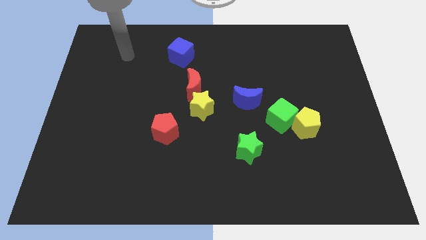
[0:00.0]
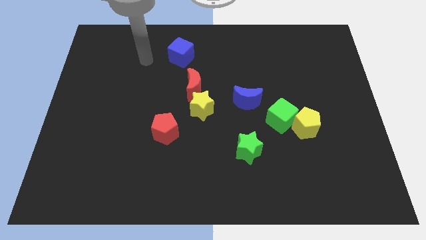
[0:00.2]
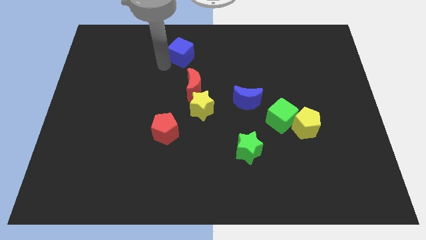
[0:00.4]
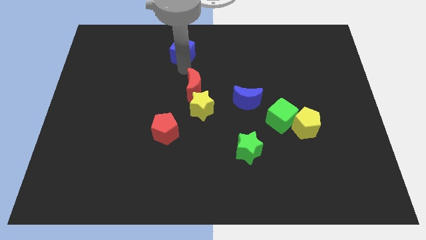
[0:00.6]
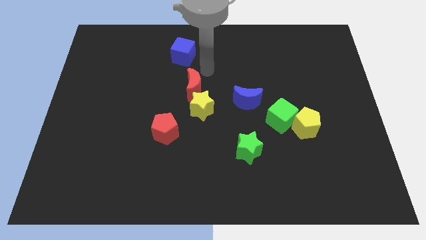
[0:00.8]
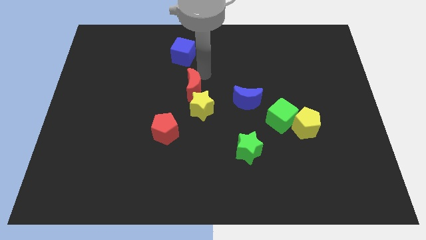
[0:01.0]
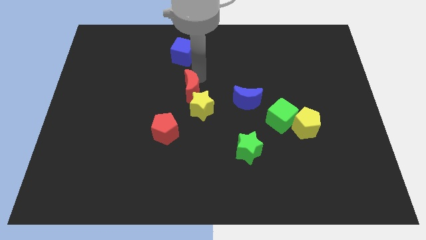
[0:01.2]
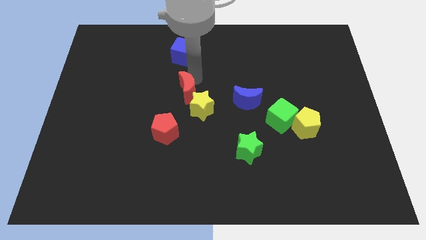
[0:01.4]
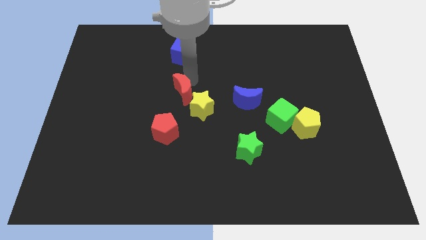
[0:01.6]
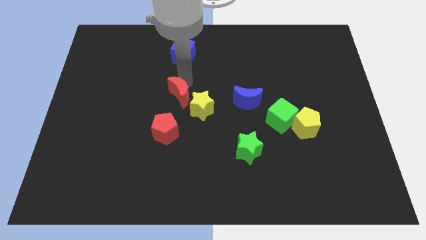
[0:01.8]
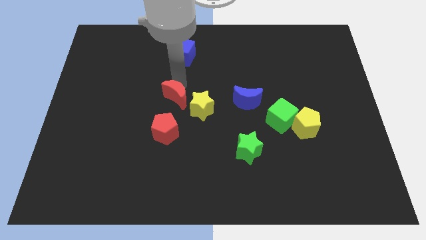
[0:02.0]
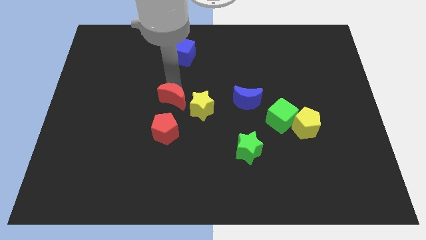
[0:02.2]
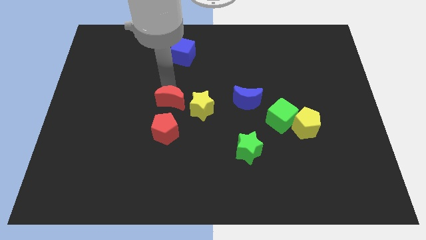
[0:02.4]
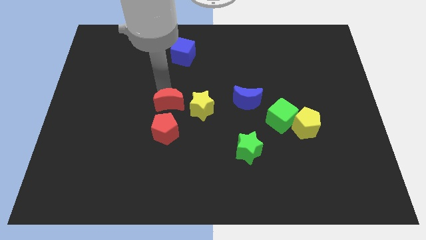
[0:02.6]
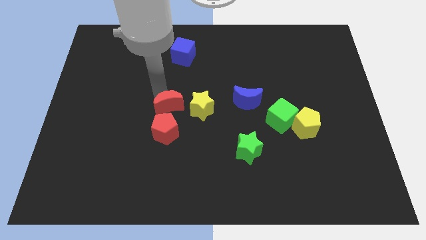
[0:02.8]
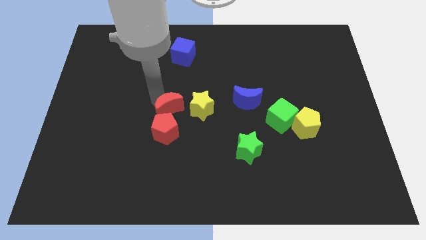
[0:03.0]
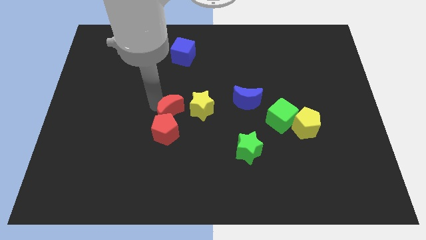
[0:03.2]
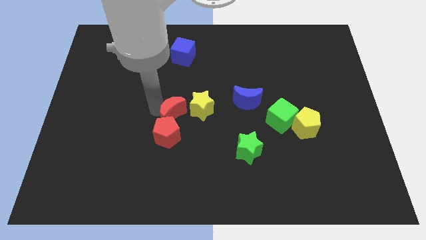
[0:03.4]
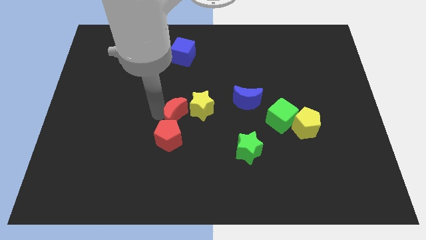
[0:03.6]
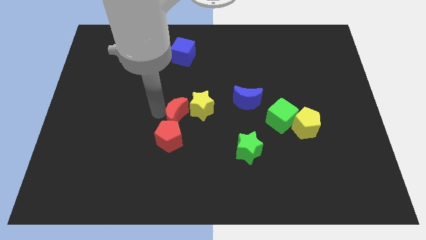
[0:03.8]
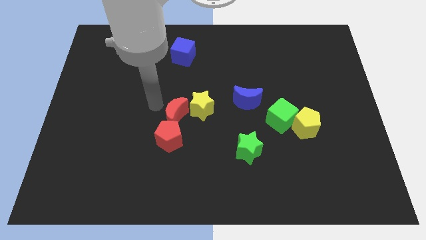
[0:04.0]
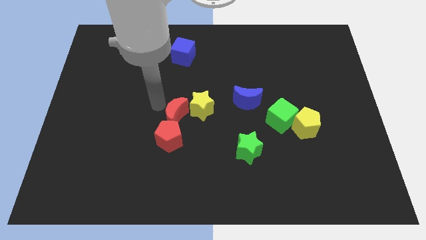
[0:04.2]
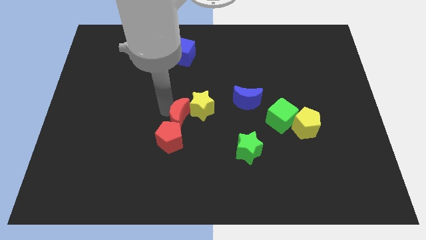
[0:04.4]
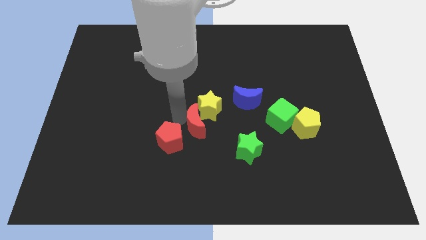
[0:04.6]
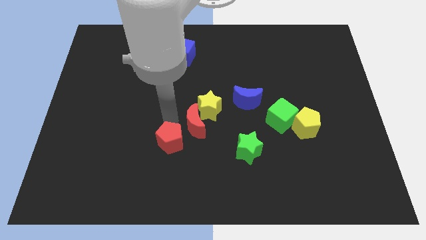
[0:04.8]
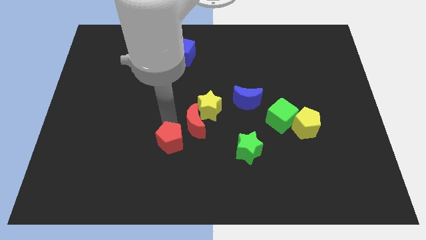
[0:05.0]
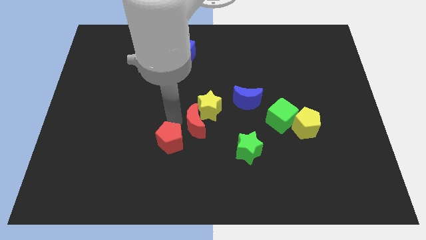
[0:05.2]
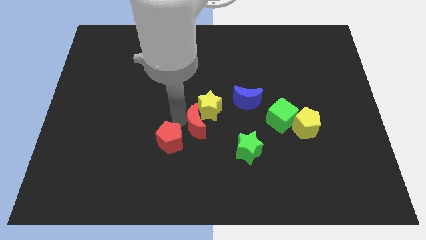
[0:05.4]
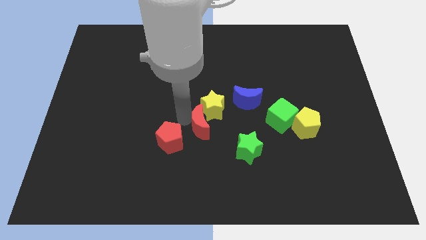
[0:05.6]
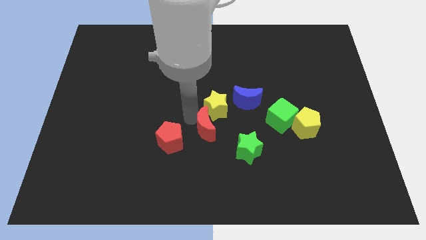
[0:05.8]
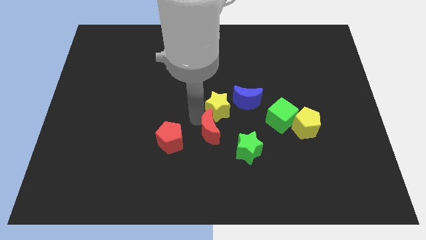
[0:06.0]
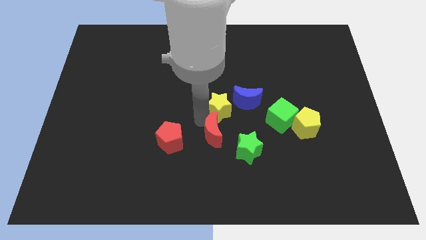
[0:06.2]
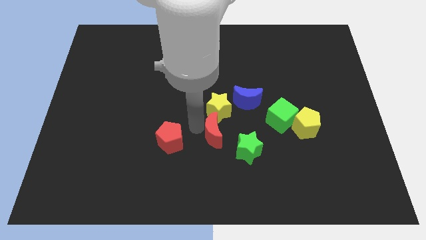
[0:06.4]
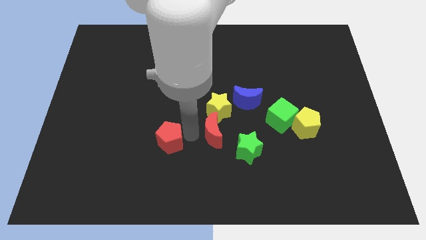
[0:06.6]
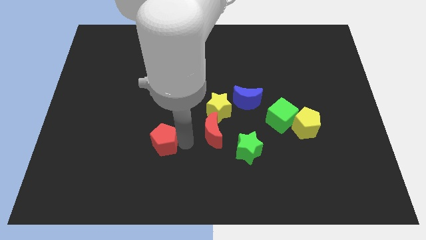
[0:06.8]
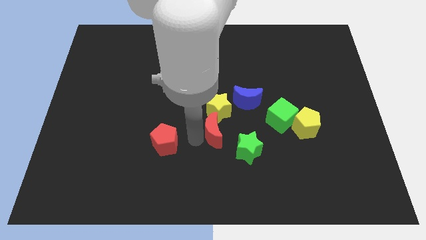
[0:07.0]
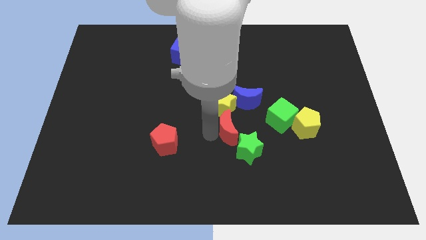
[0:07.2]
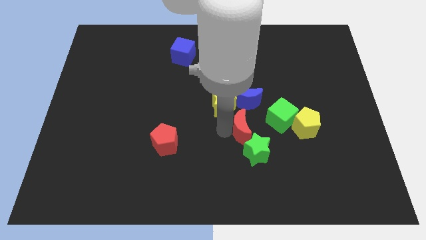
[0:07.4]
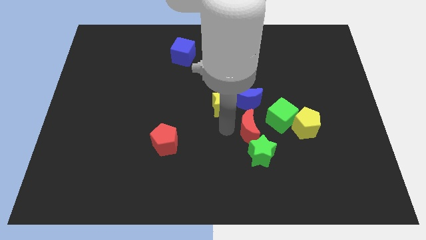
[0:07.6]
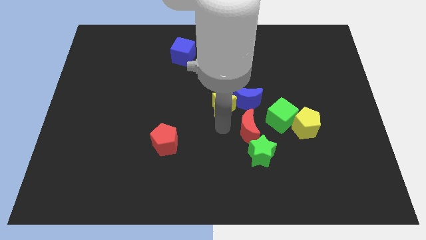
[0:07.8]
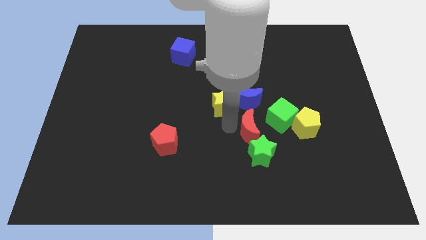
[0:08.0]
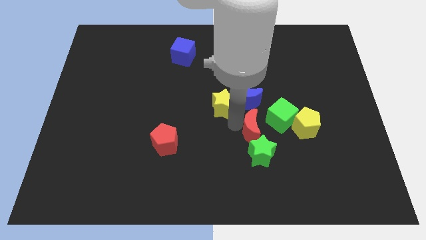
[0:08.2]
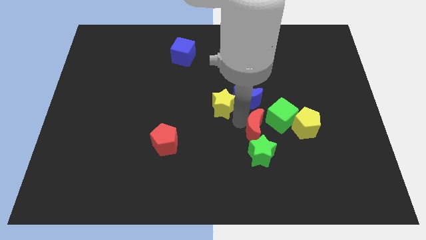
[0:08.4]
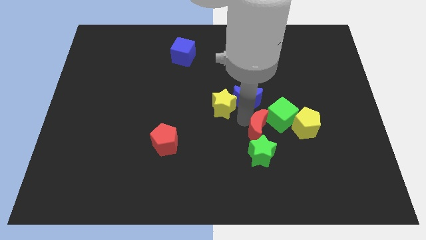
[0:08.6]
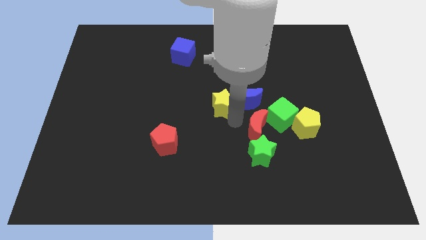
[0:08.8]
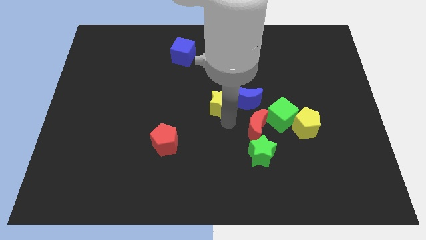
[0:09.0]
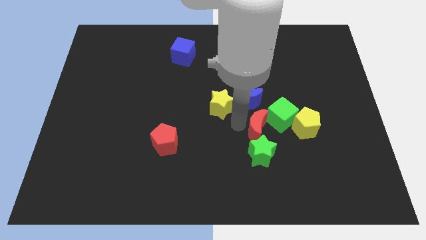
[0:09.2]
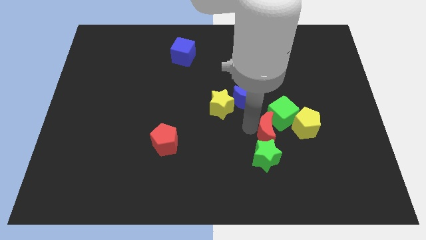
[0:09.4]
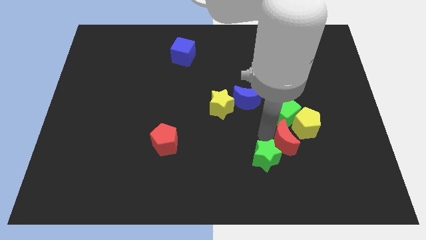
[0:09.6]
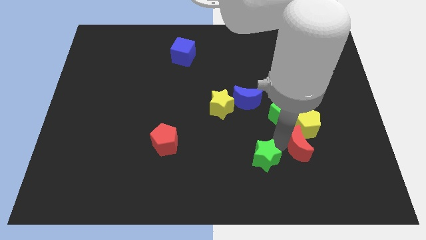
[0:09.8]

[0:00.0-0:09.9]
push the red moon diagonally down and to the right of the green cube

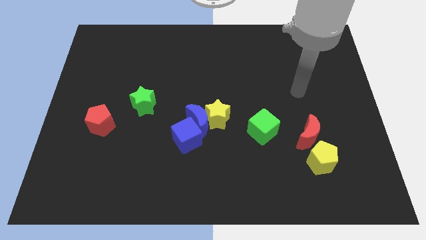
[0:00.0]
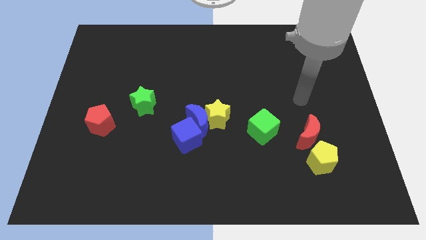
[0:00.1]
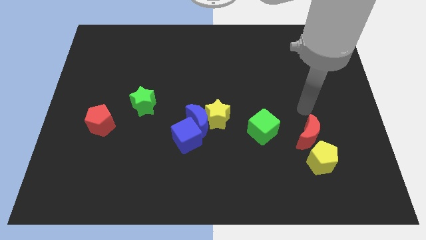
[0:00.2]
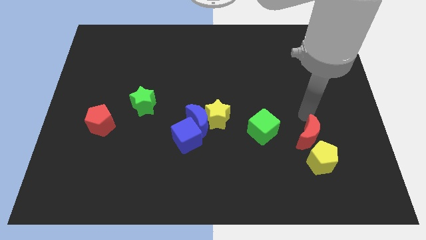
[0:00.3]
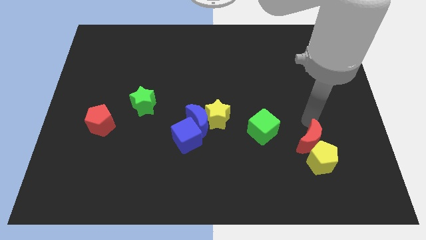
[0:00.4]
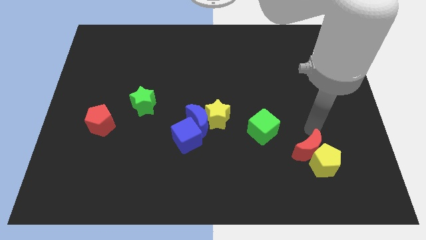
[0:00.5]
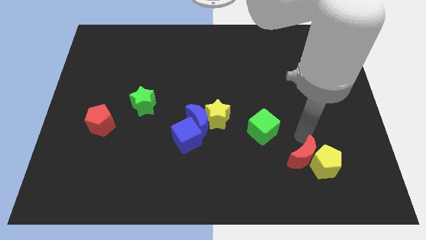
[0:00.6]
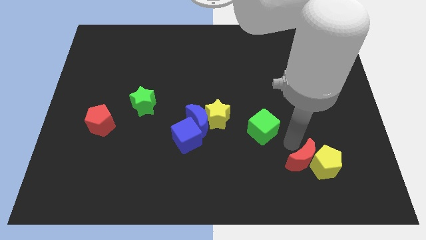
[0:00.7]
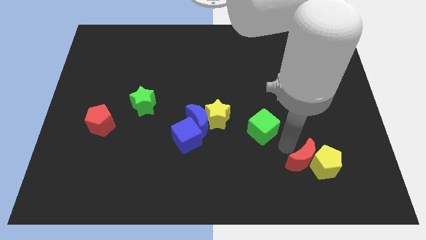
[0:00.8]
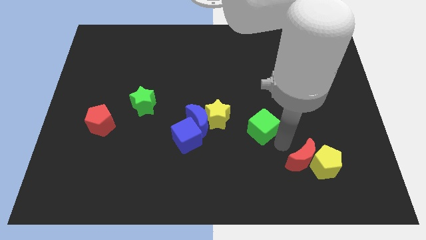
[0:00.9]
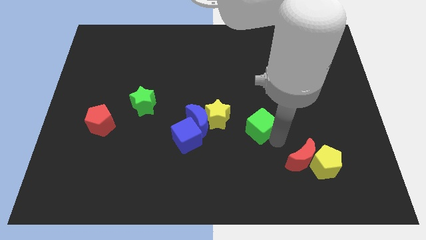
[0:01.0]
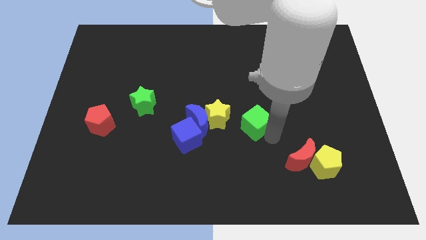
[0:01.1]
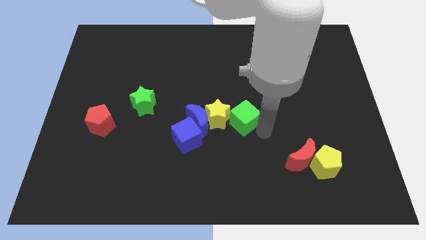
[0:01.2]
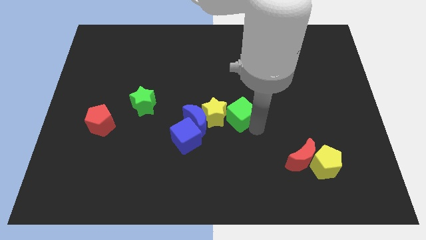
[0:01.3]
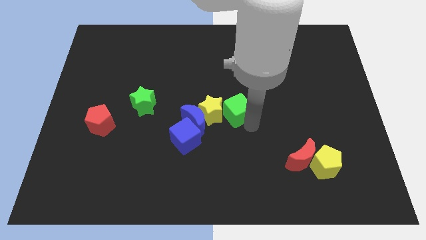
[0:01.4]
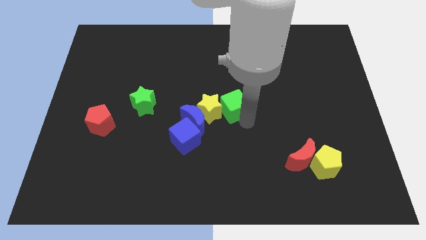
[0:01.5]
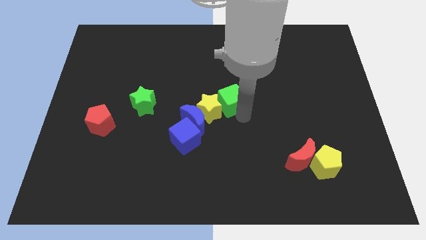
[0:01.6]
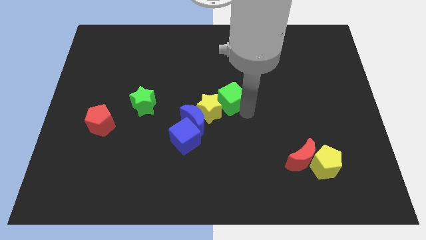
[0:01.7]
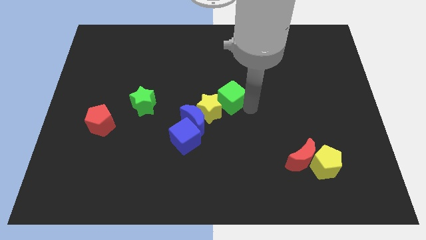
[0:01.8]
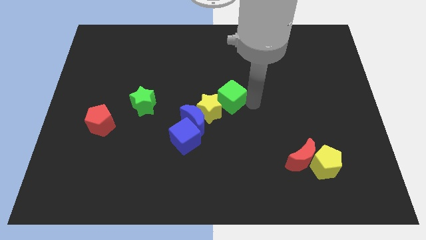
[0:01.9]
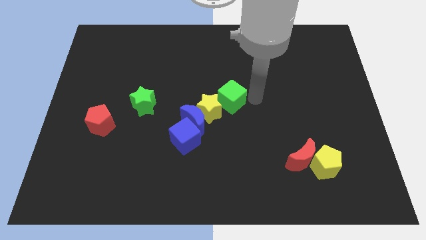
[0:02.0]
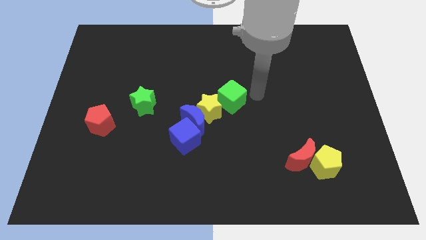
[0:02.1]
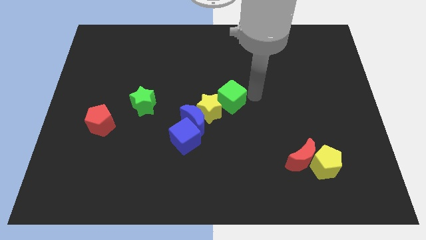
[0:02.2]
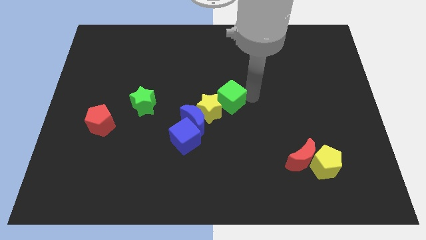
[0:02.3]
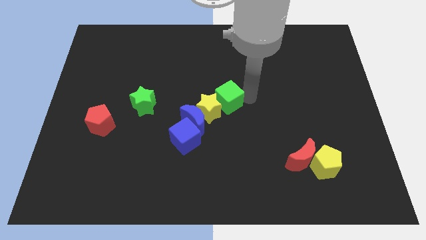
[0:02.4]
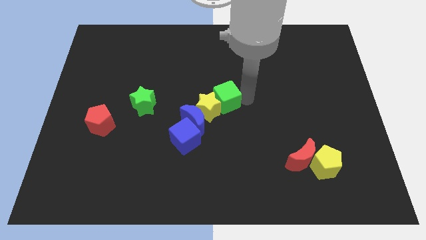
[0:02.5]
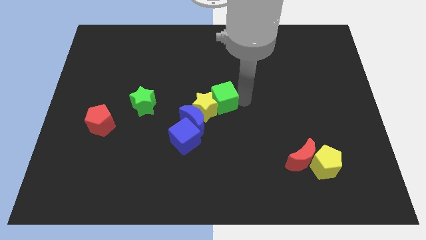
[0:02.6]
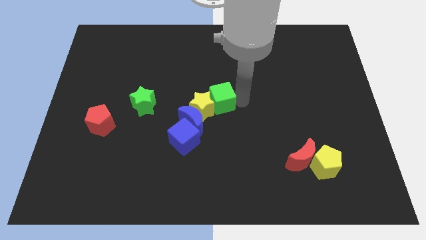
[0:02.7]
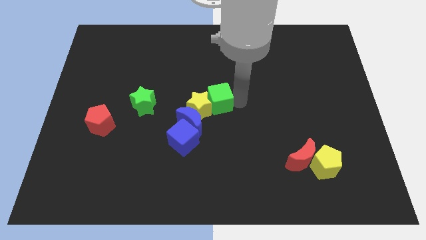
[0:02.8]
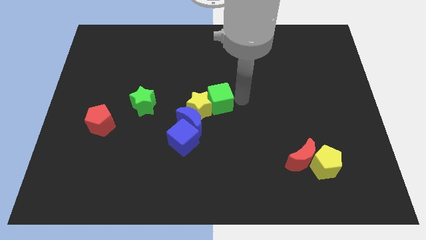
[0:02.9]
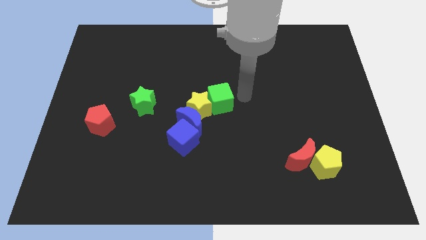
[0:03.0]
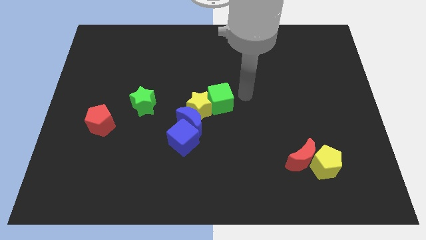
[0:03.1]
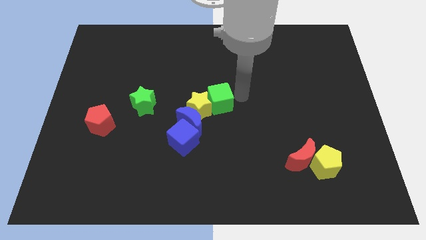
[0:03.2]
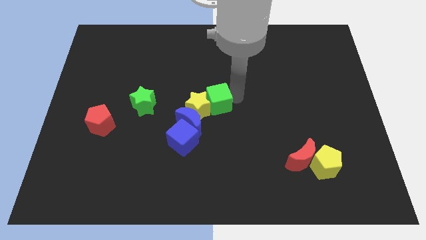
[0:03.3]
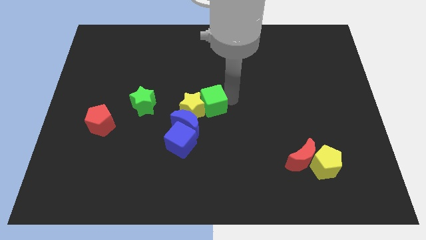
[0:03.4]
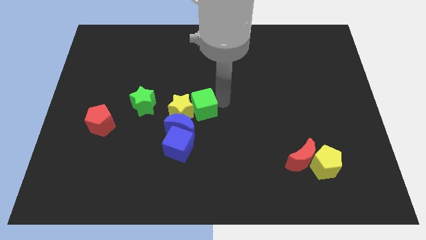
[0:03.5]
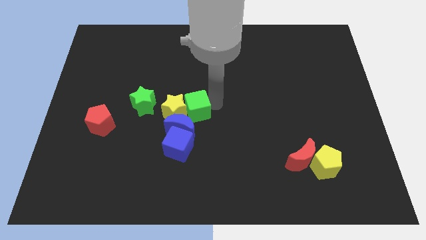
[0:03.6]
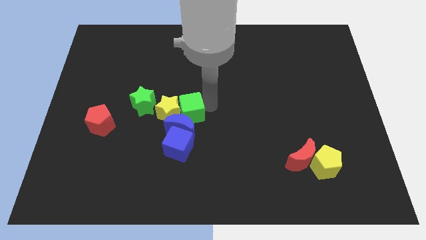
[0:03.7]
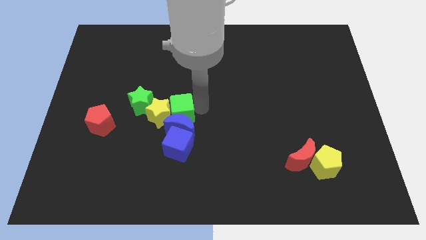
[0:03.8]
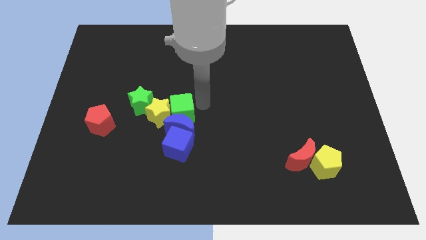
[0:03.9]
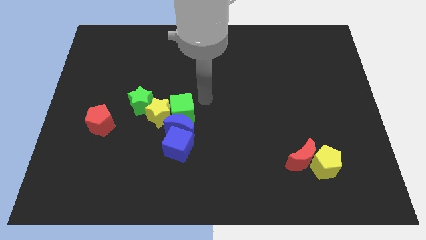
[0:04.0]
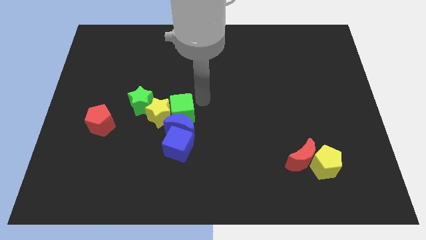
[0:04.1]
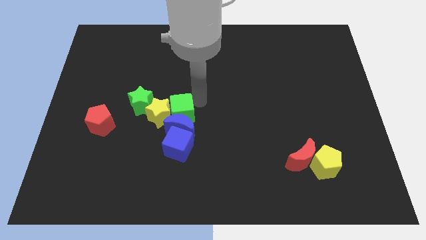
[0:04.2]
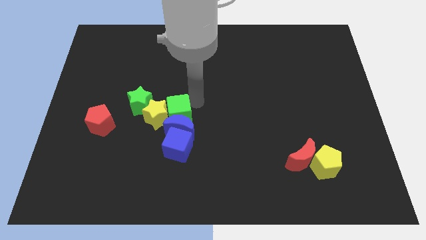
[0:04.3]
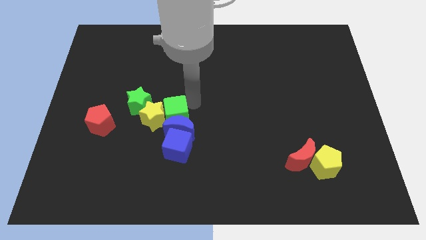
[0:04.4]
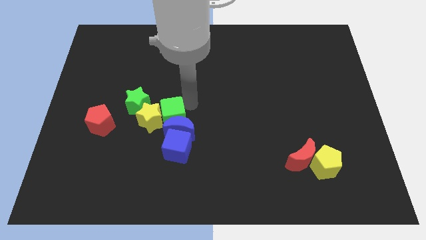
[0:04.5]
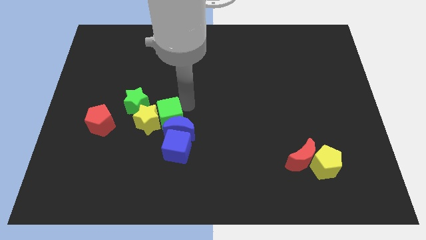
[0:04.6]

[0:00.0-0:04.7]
push the green cube to the top left side of the blue cube
